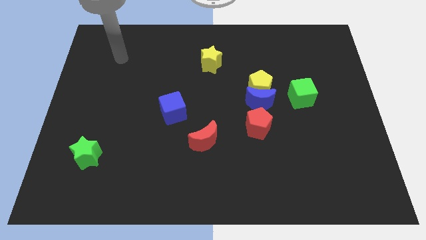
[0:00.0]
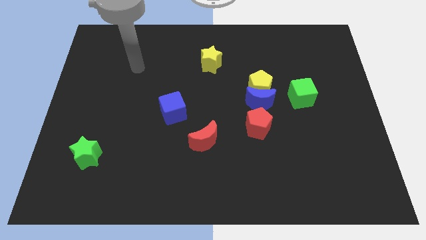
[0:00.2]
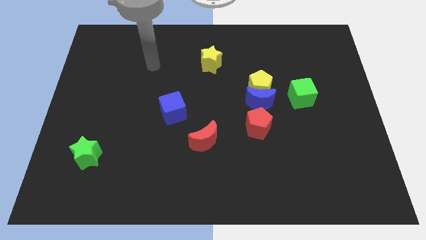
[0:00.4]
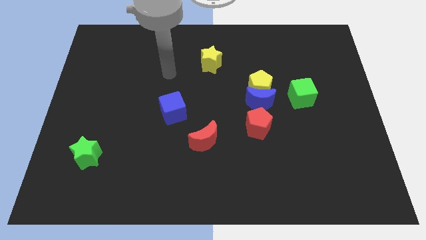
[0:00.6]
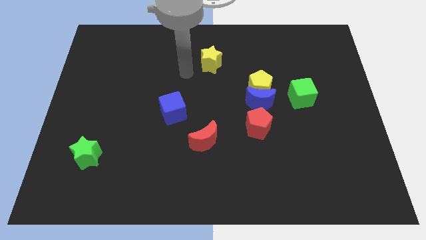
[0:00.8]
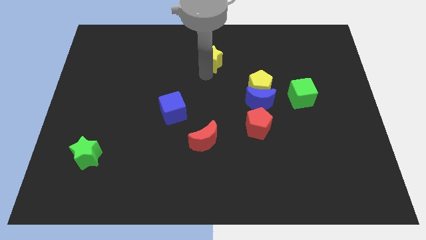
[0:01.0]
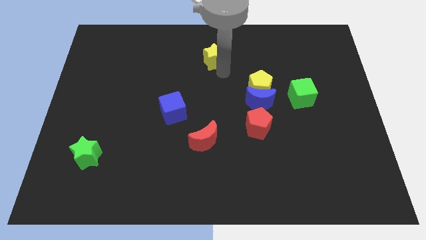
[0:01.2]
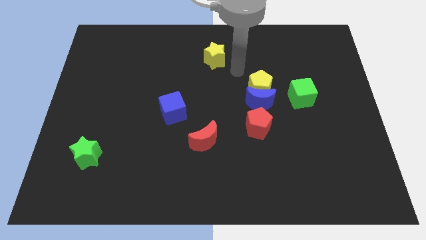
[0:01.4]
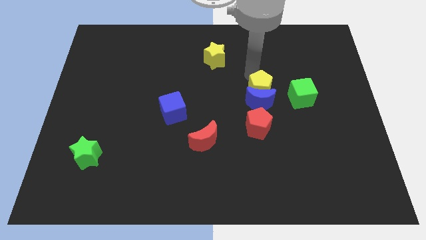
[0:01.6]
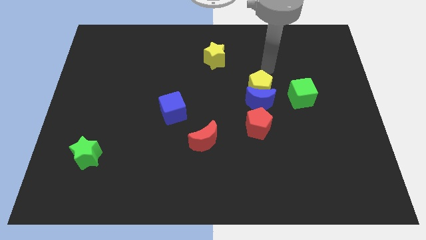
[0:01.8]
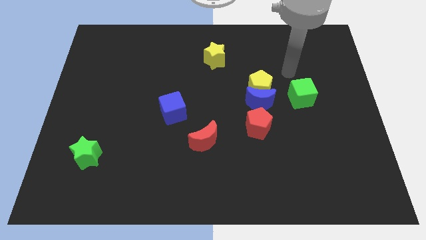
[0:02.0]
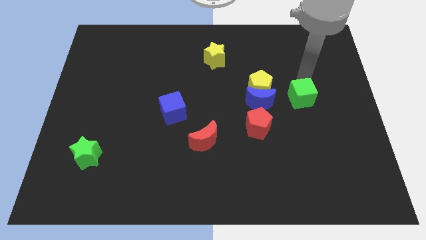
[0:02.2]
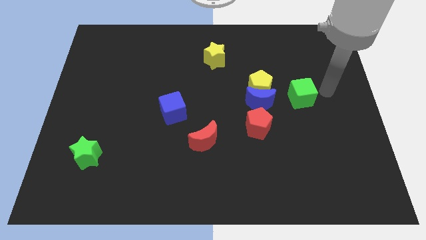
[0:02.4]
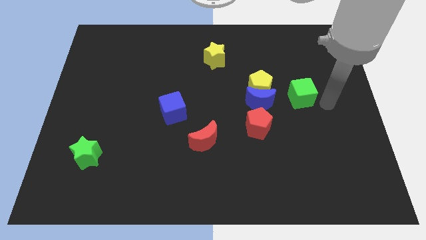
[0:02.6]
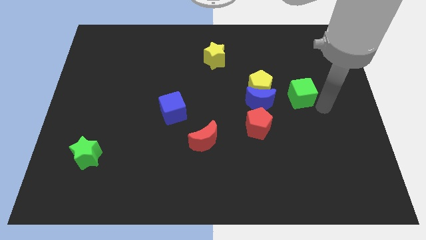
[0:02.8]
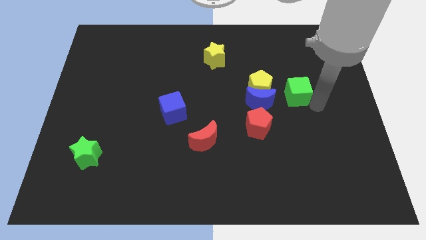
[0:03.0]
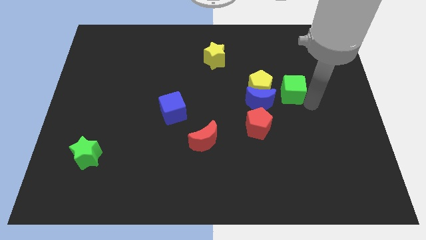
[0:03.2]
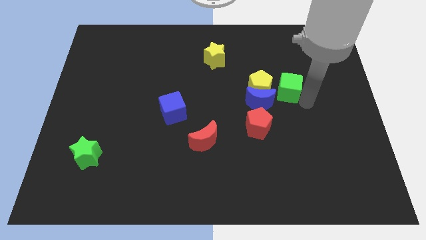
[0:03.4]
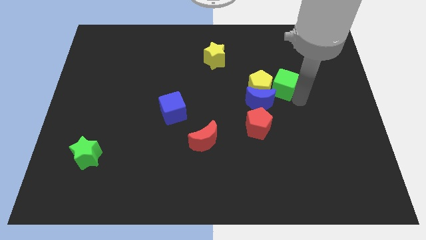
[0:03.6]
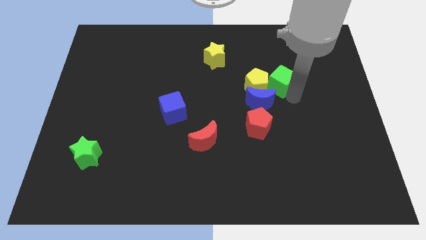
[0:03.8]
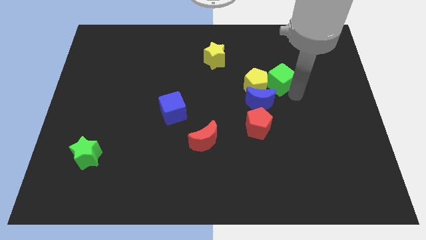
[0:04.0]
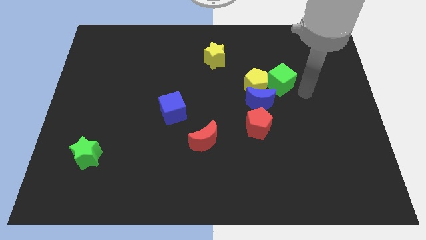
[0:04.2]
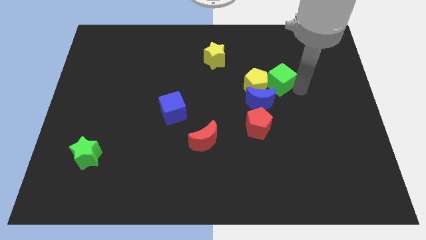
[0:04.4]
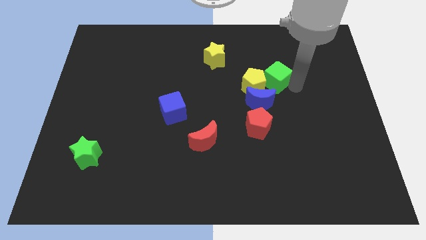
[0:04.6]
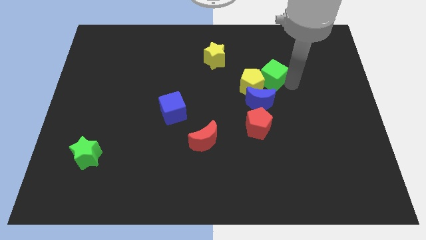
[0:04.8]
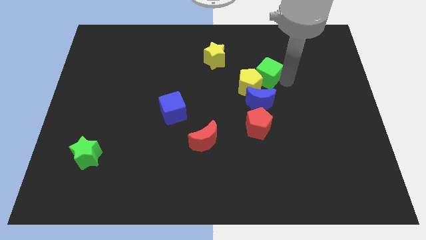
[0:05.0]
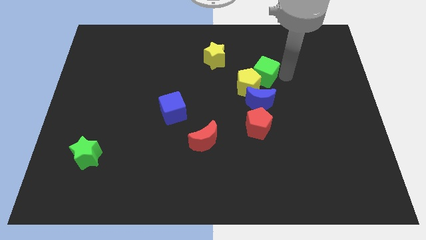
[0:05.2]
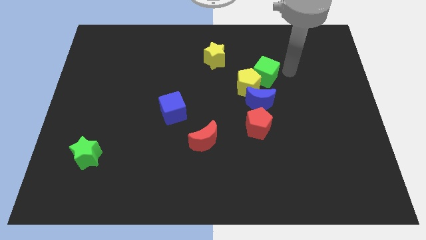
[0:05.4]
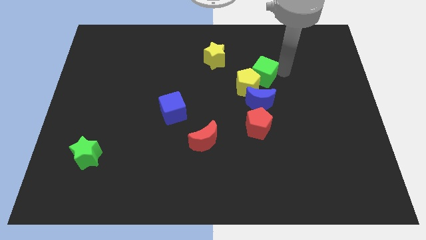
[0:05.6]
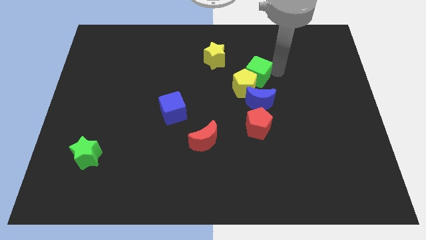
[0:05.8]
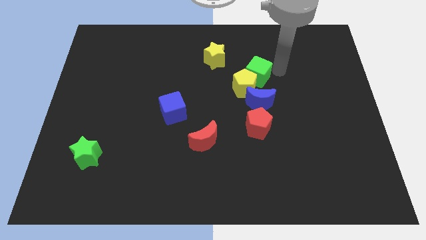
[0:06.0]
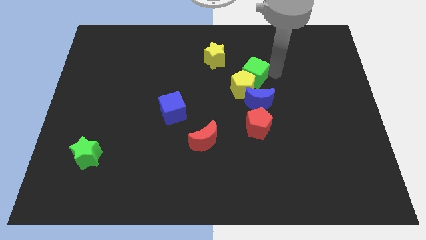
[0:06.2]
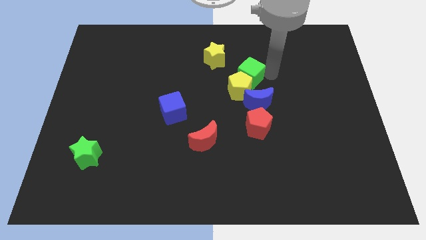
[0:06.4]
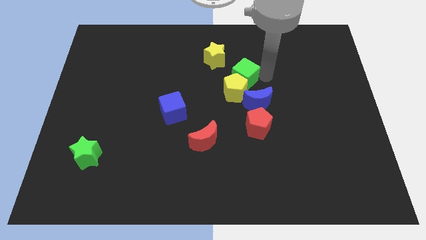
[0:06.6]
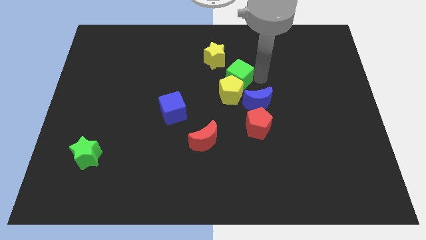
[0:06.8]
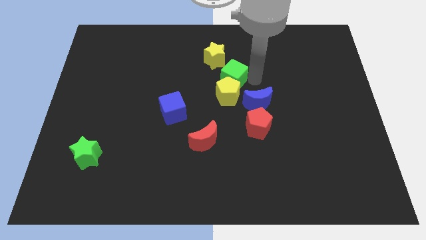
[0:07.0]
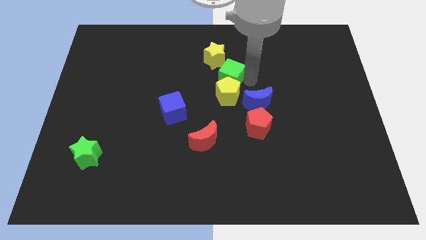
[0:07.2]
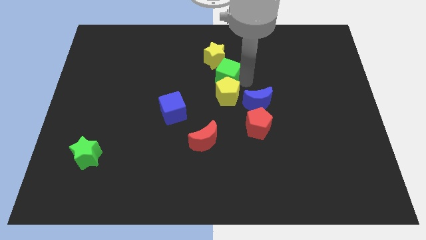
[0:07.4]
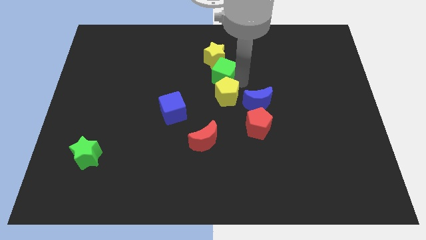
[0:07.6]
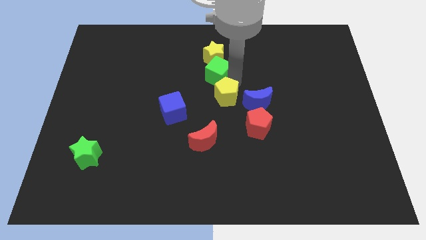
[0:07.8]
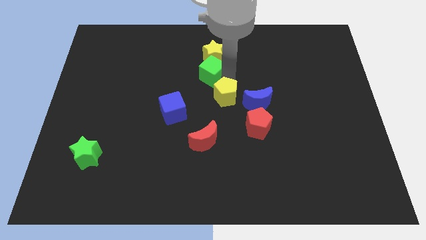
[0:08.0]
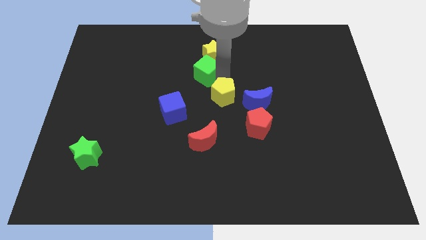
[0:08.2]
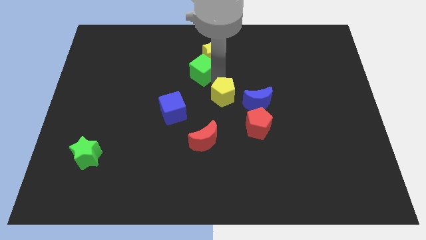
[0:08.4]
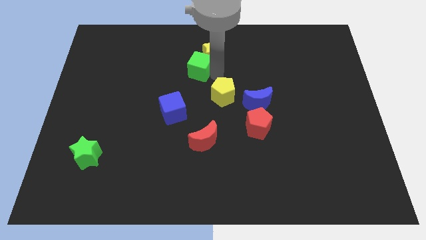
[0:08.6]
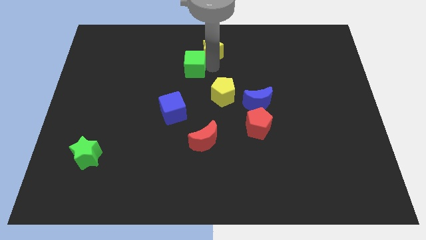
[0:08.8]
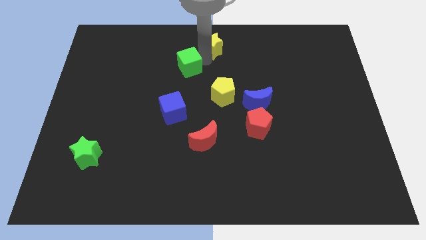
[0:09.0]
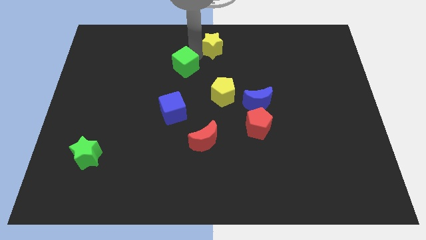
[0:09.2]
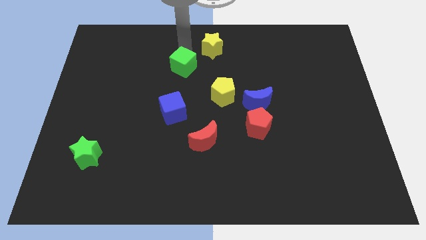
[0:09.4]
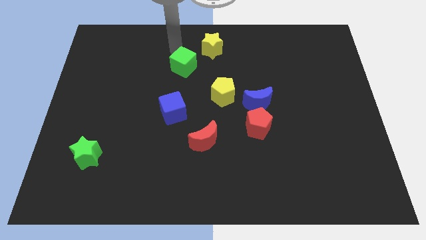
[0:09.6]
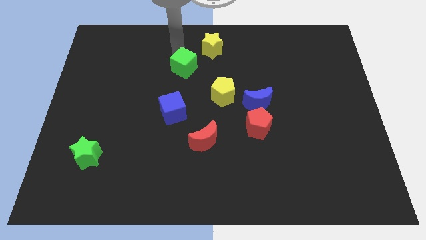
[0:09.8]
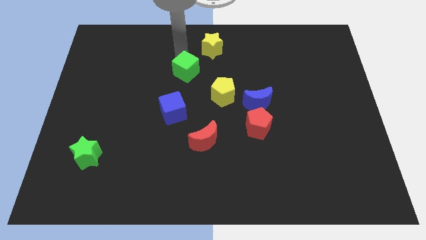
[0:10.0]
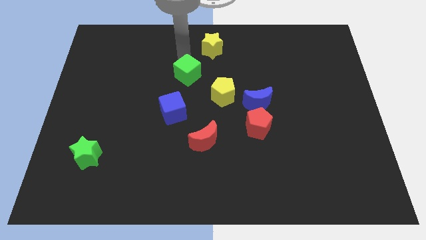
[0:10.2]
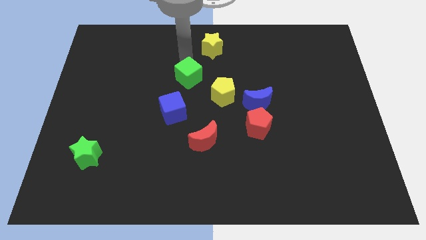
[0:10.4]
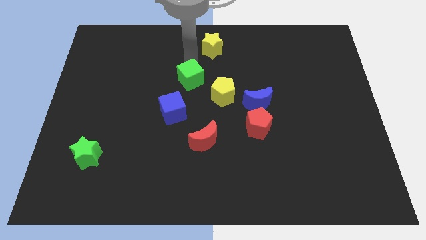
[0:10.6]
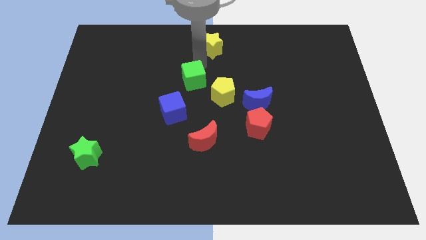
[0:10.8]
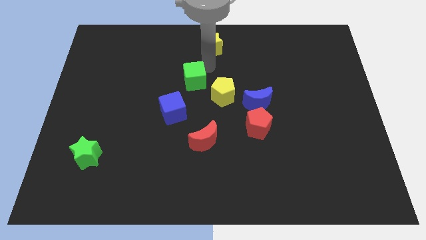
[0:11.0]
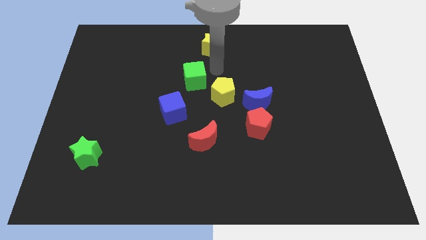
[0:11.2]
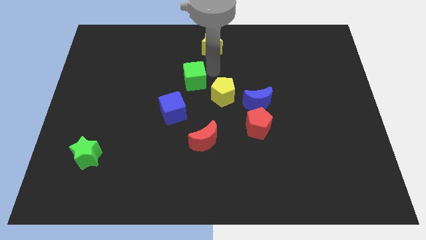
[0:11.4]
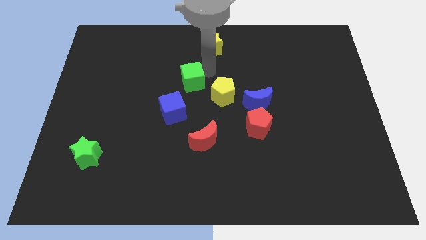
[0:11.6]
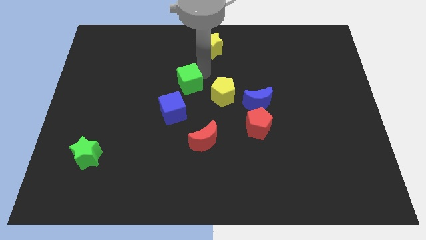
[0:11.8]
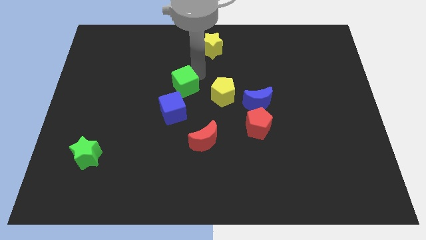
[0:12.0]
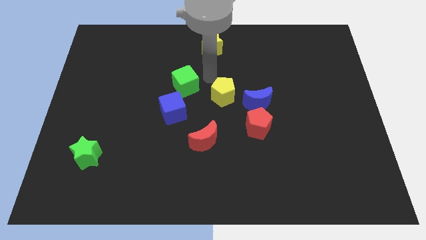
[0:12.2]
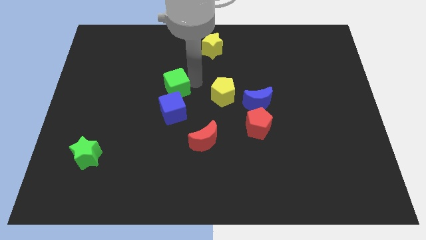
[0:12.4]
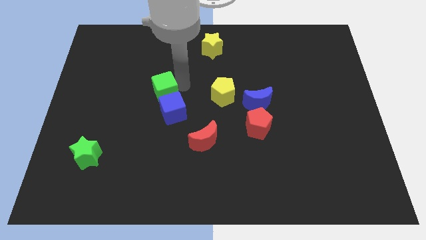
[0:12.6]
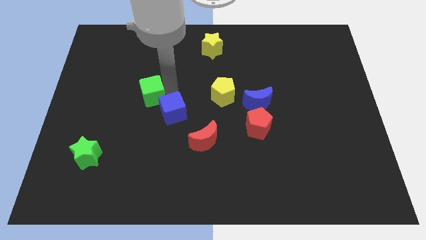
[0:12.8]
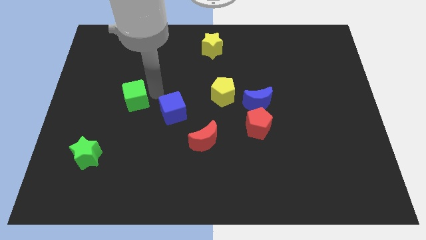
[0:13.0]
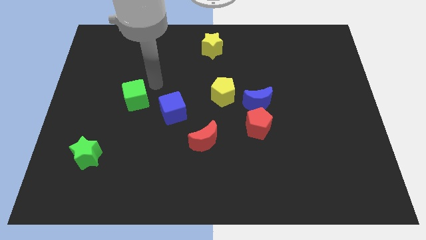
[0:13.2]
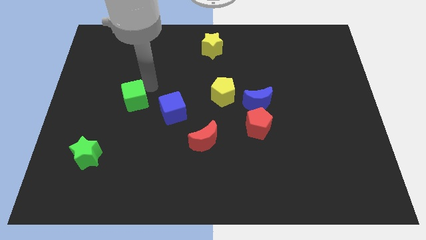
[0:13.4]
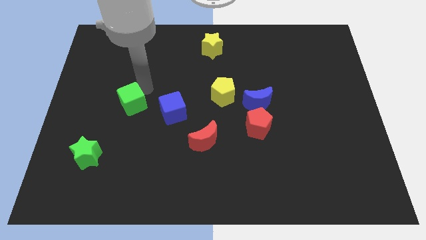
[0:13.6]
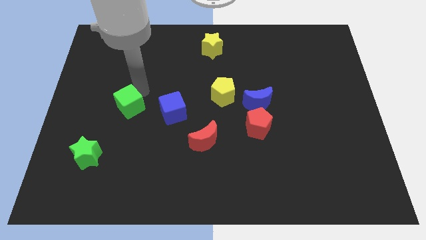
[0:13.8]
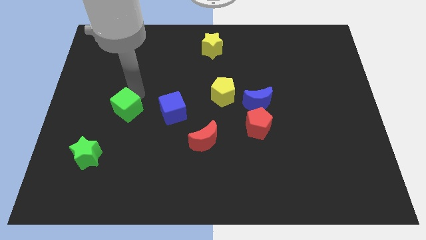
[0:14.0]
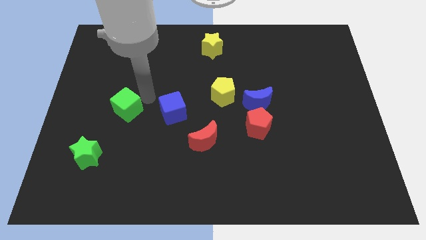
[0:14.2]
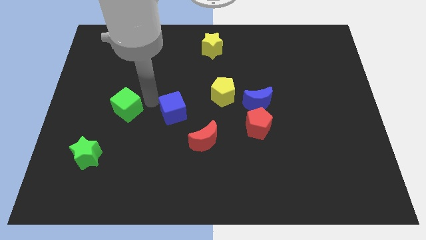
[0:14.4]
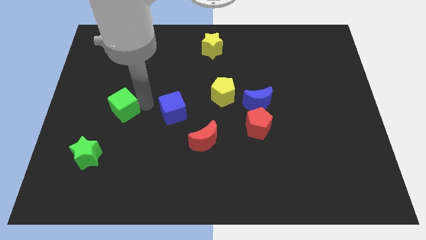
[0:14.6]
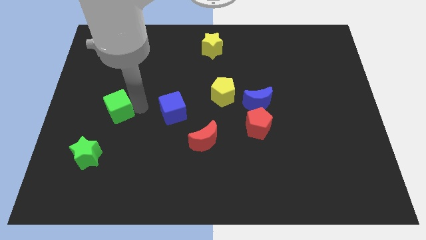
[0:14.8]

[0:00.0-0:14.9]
move the green cube to the top side of the green star
